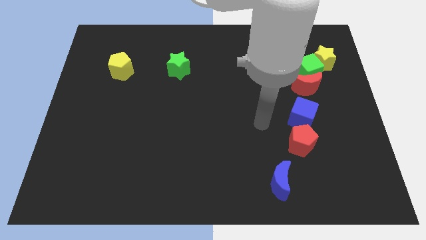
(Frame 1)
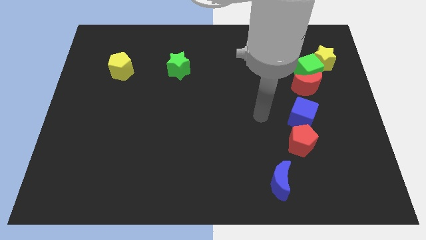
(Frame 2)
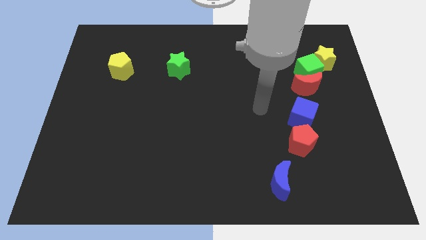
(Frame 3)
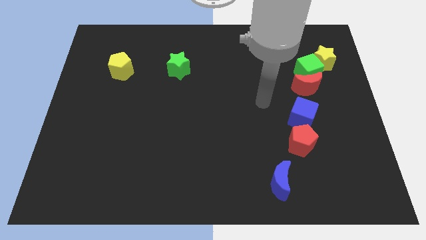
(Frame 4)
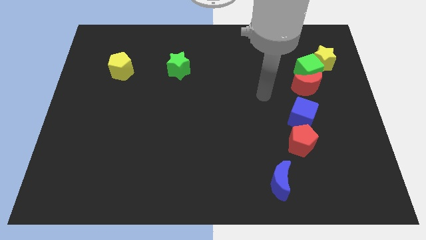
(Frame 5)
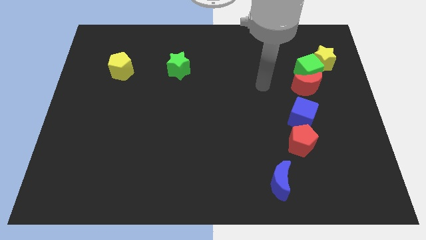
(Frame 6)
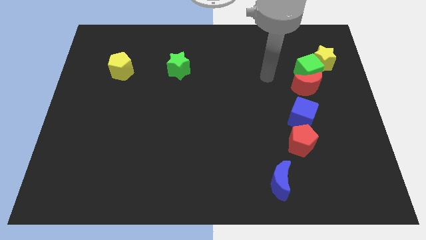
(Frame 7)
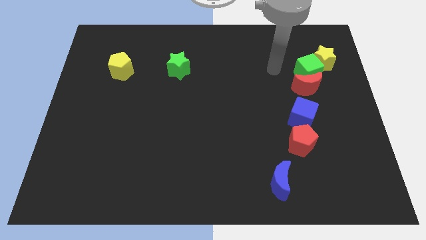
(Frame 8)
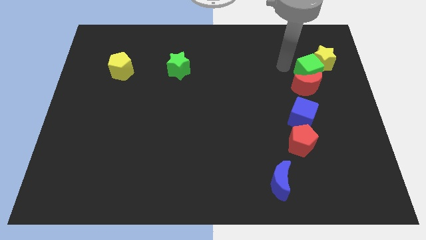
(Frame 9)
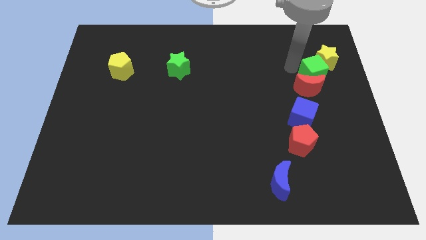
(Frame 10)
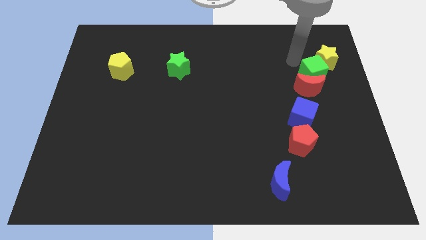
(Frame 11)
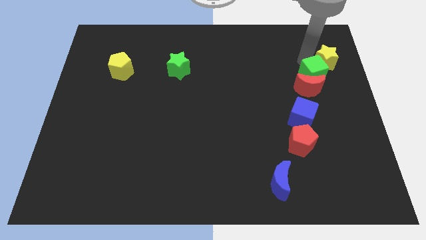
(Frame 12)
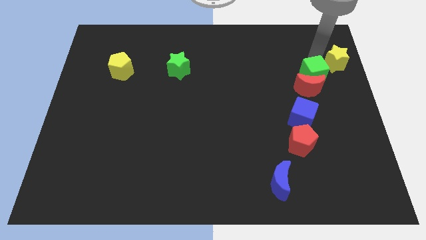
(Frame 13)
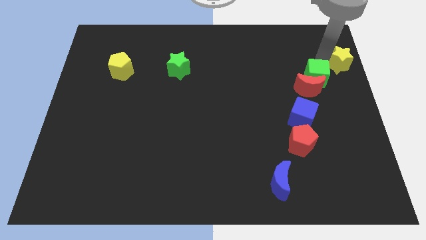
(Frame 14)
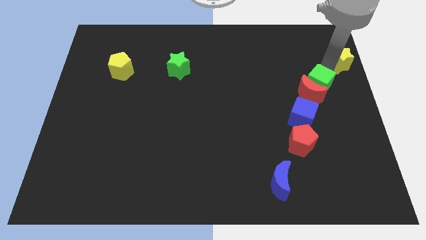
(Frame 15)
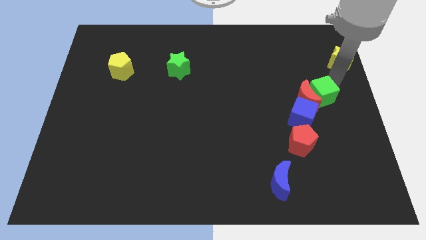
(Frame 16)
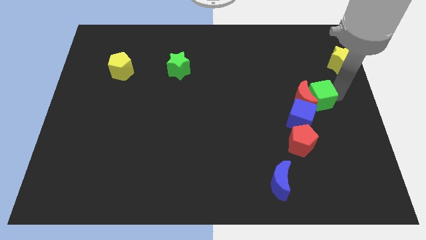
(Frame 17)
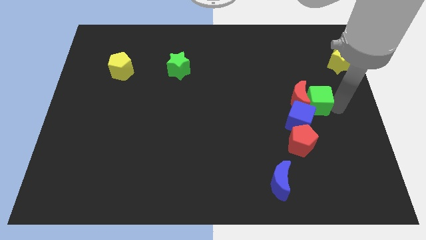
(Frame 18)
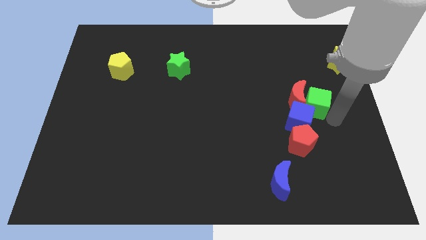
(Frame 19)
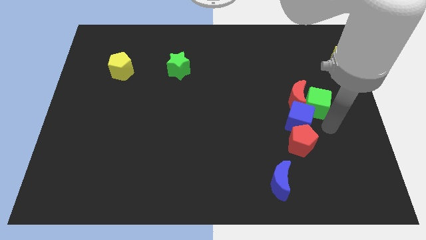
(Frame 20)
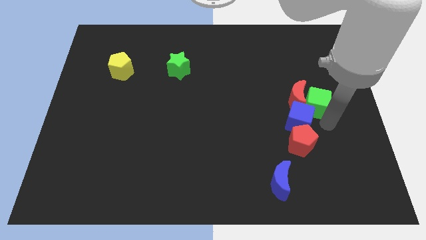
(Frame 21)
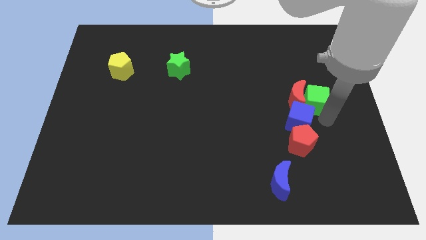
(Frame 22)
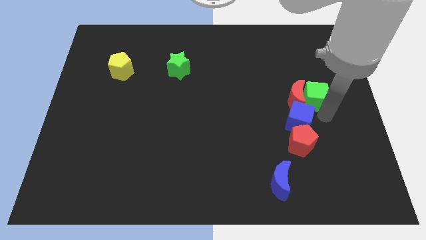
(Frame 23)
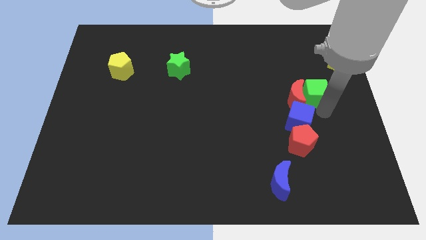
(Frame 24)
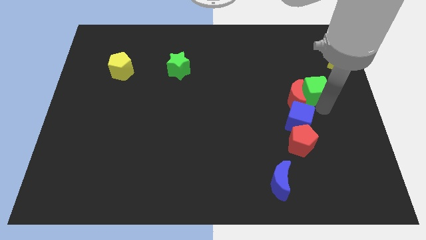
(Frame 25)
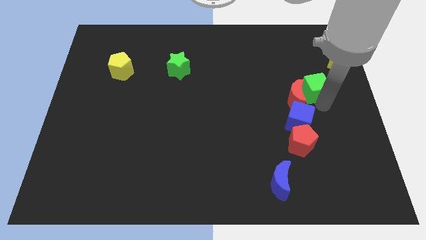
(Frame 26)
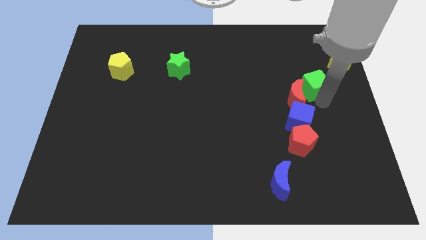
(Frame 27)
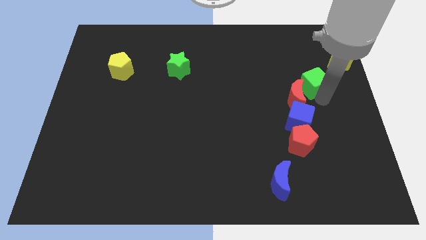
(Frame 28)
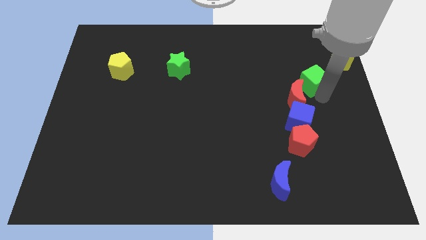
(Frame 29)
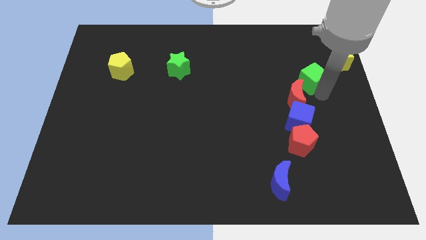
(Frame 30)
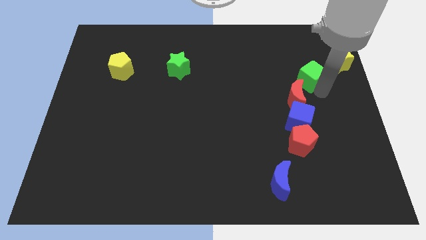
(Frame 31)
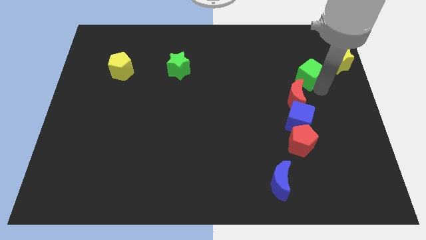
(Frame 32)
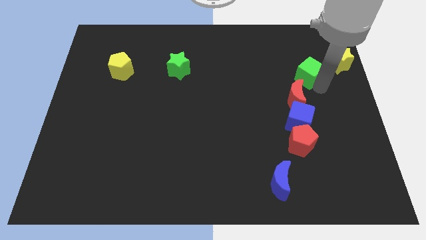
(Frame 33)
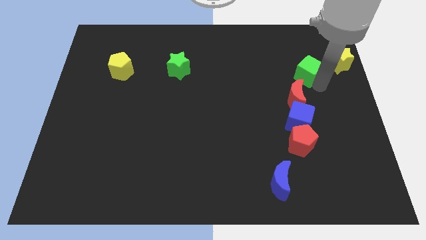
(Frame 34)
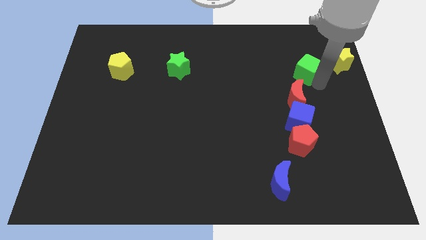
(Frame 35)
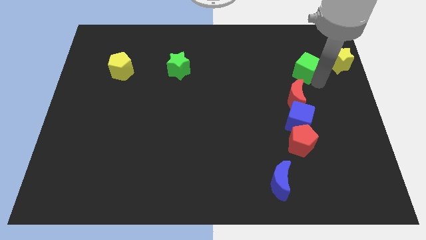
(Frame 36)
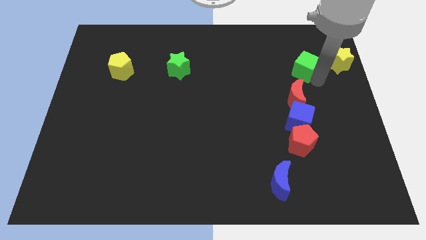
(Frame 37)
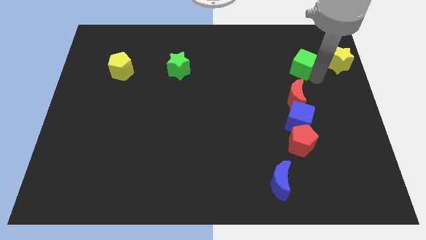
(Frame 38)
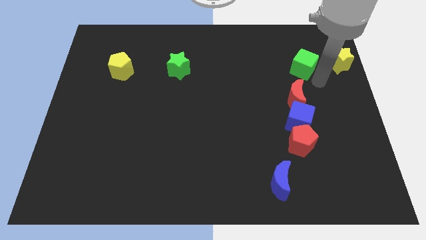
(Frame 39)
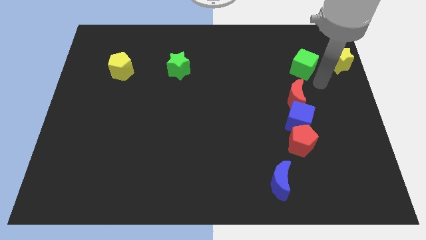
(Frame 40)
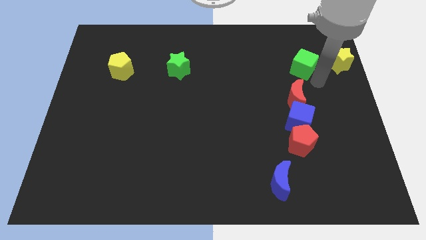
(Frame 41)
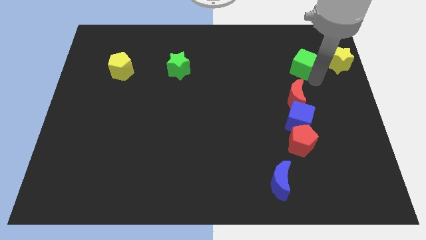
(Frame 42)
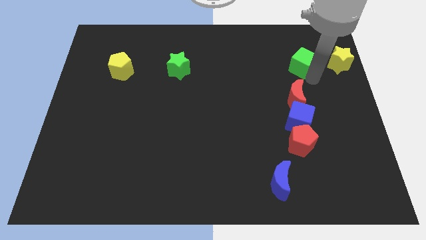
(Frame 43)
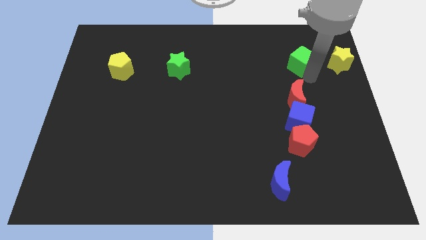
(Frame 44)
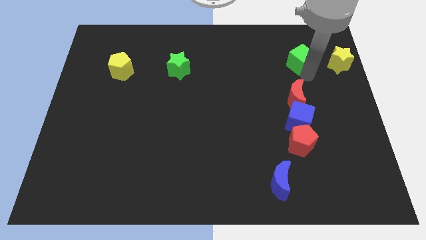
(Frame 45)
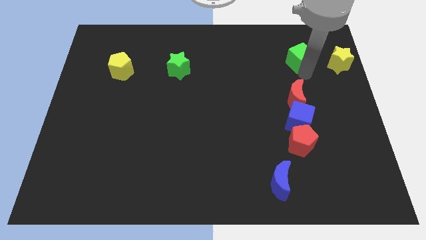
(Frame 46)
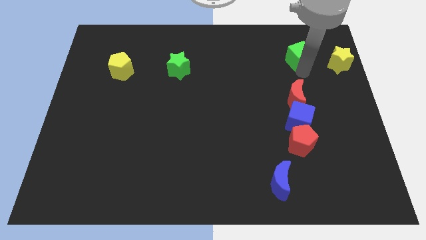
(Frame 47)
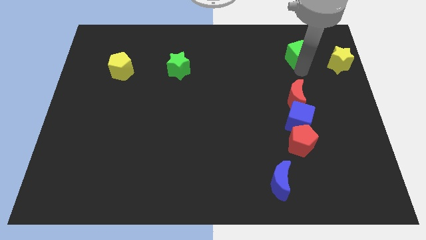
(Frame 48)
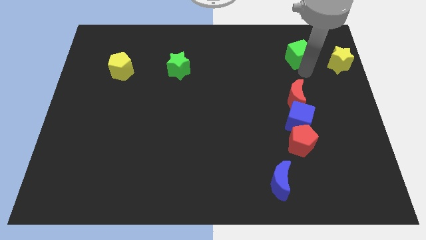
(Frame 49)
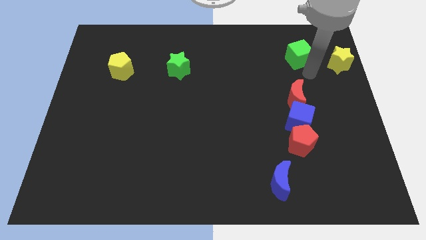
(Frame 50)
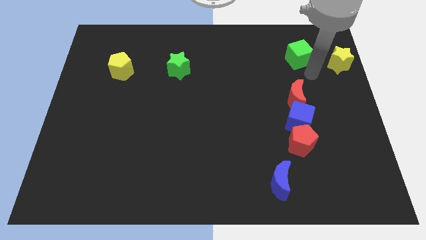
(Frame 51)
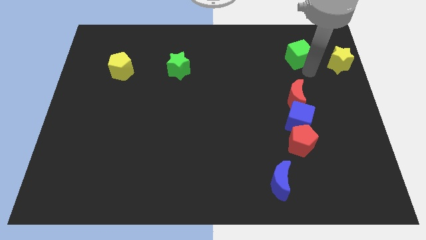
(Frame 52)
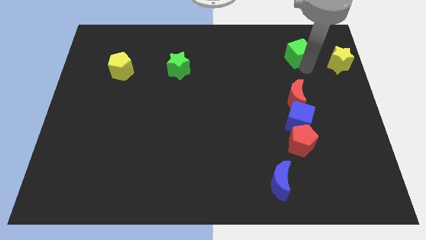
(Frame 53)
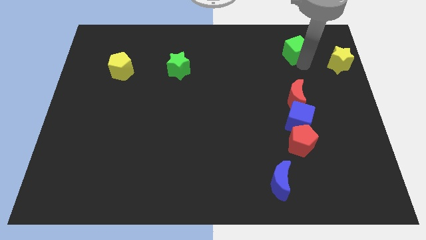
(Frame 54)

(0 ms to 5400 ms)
separate the green cube from the red moon and yellow star

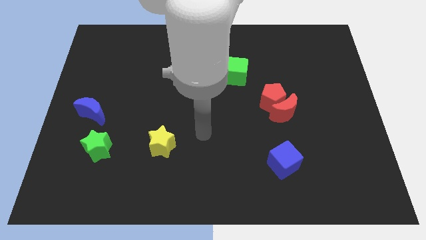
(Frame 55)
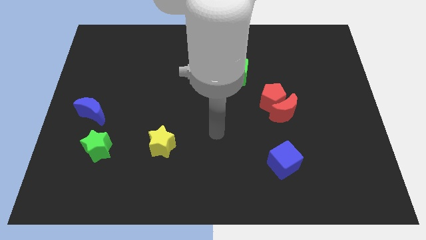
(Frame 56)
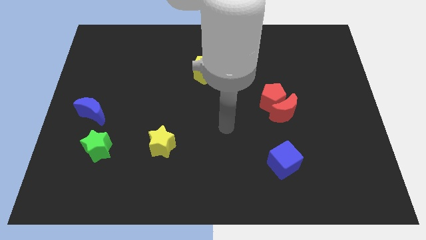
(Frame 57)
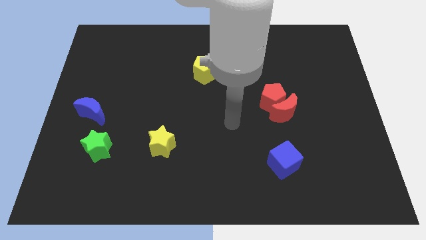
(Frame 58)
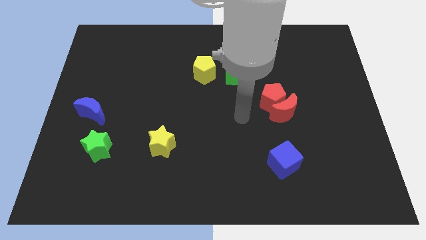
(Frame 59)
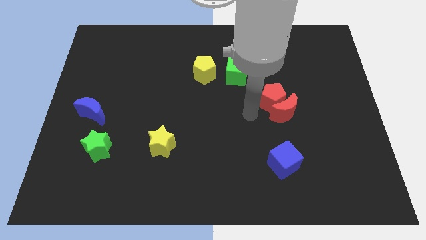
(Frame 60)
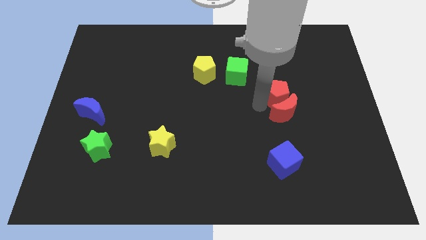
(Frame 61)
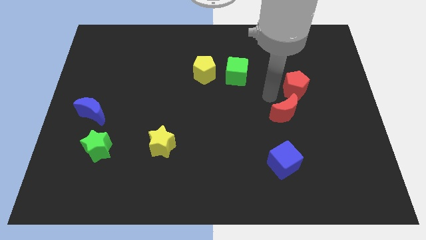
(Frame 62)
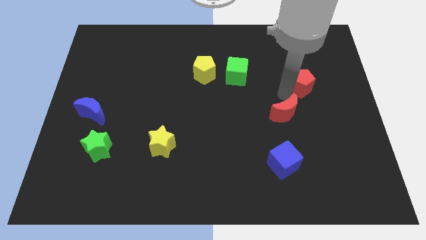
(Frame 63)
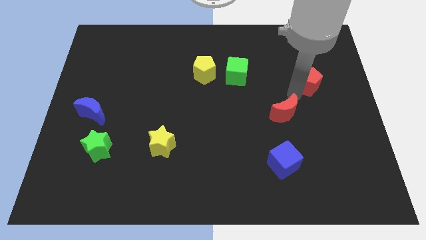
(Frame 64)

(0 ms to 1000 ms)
separate the red moon from the red pentagon

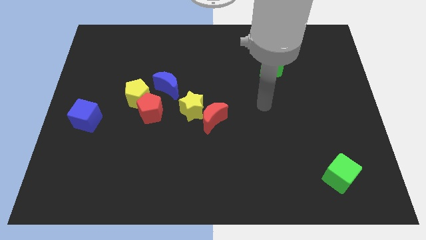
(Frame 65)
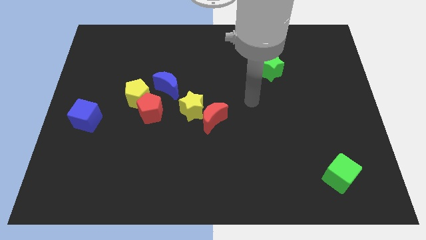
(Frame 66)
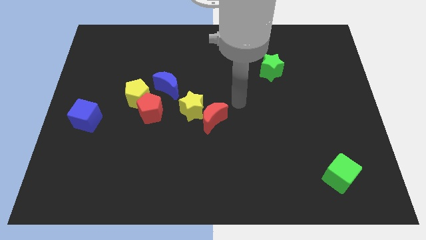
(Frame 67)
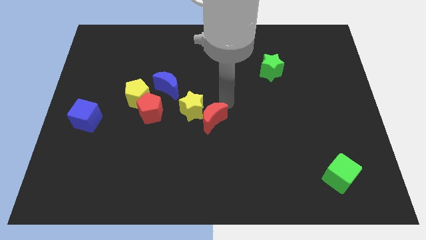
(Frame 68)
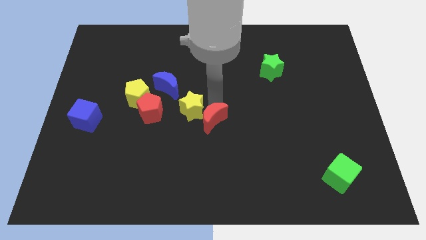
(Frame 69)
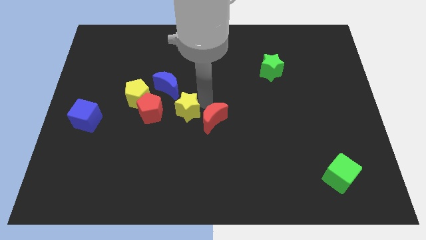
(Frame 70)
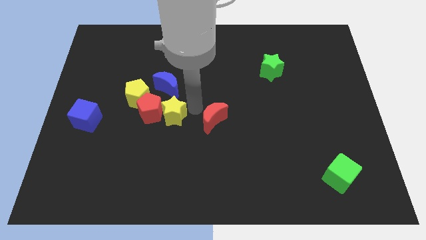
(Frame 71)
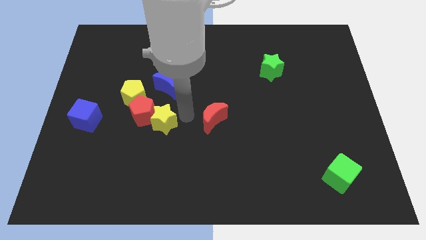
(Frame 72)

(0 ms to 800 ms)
pull the red moon apart from the yellow star

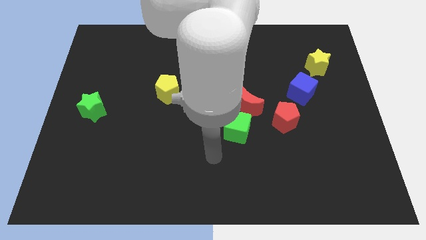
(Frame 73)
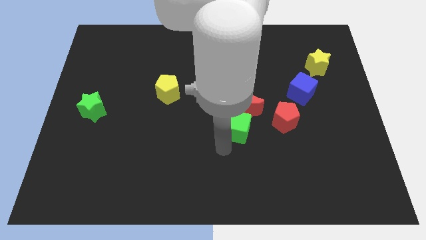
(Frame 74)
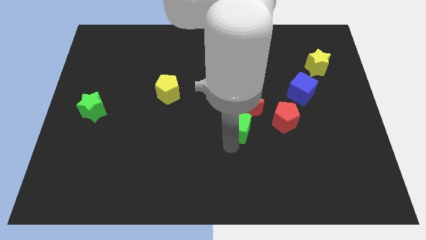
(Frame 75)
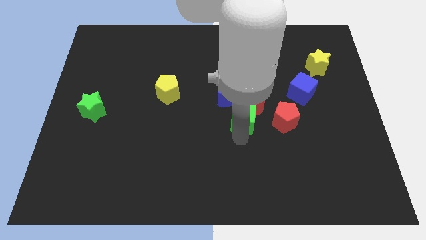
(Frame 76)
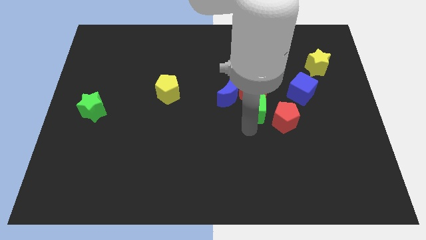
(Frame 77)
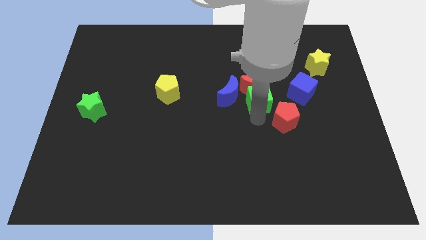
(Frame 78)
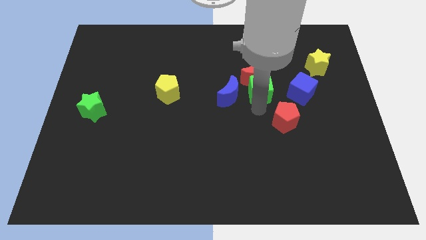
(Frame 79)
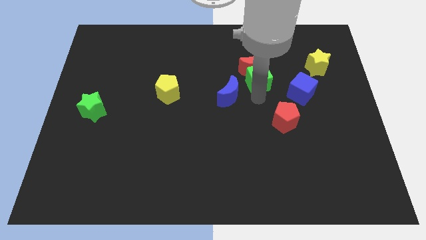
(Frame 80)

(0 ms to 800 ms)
pull the red moon apart from the group

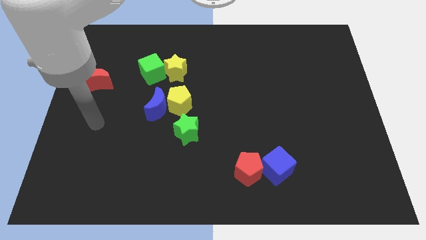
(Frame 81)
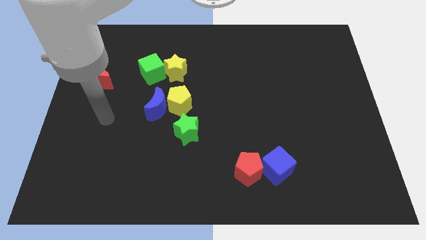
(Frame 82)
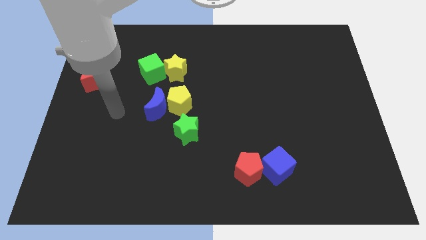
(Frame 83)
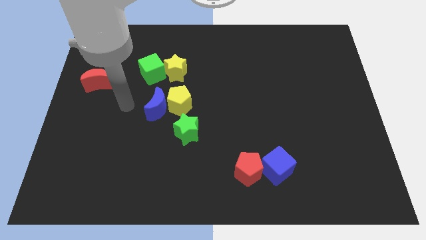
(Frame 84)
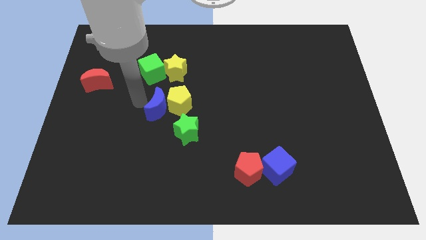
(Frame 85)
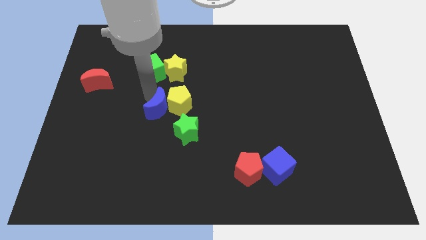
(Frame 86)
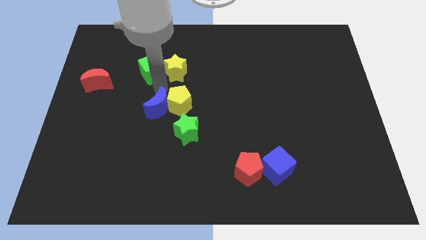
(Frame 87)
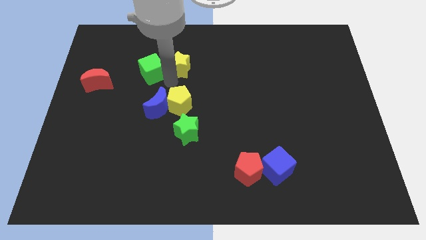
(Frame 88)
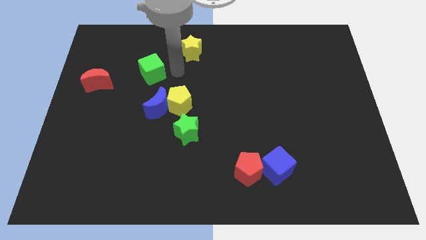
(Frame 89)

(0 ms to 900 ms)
move the green cube away from the yellow star

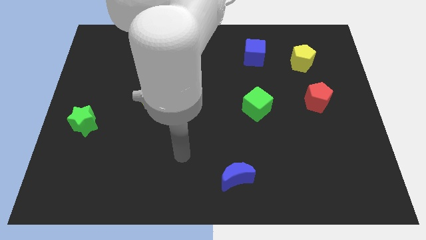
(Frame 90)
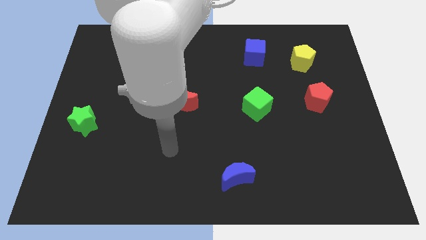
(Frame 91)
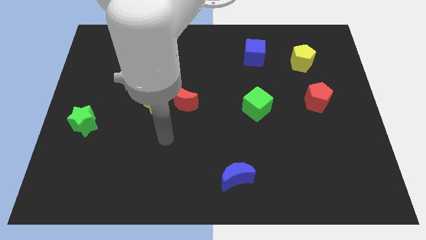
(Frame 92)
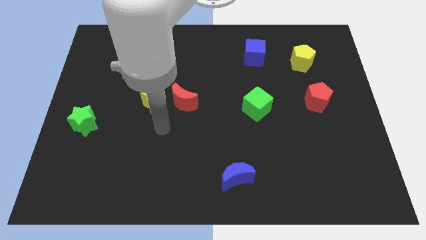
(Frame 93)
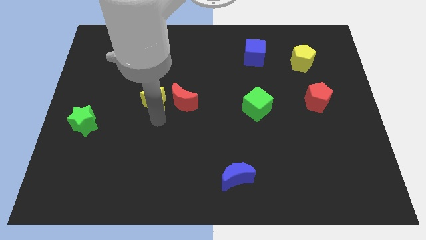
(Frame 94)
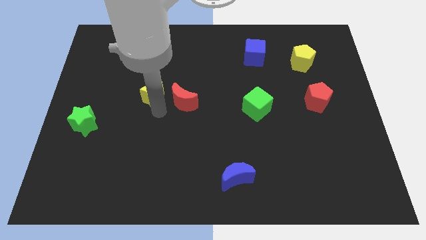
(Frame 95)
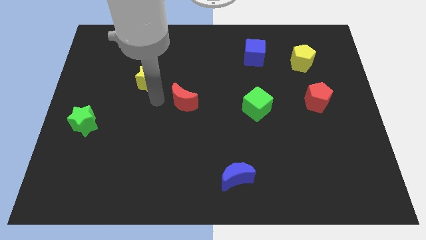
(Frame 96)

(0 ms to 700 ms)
separate the red moon from the yellow star
